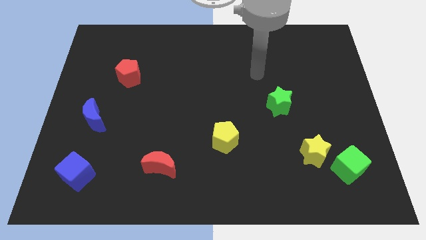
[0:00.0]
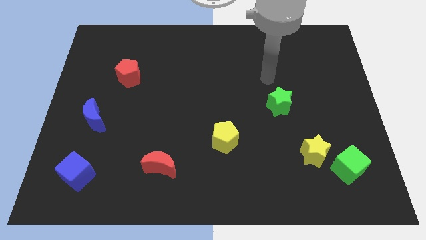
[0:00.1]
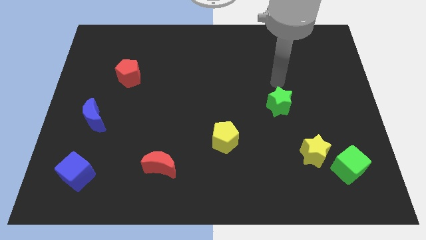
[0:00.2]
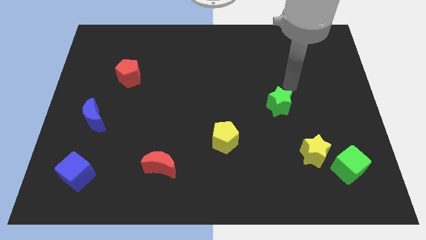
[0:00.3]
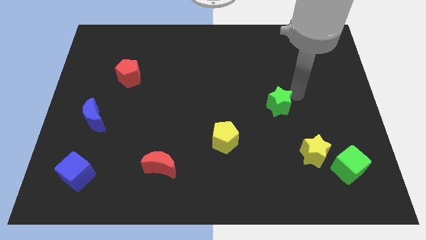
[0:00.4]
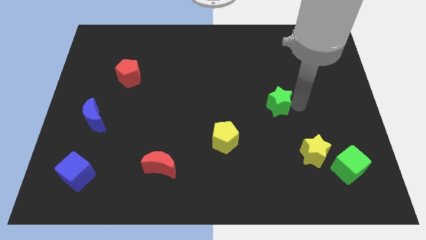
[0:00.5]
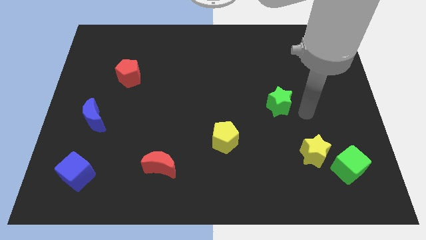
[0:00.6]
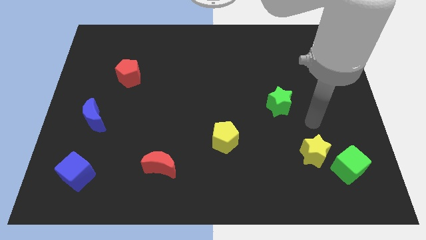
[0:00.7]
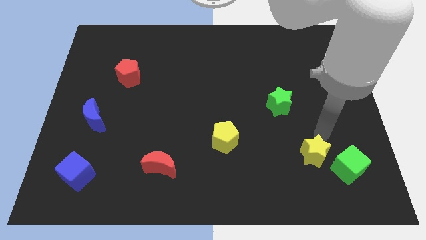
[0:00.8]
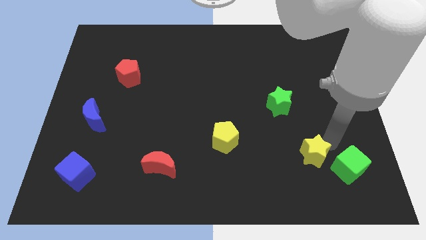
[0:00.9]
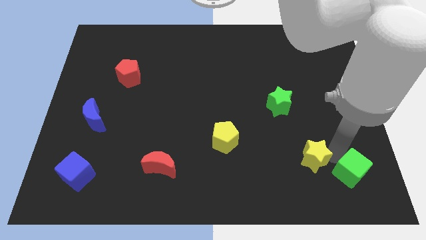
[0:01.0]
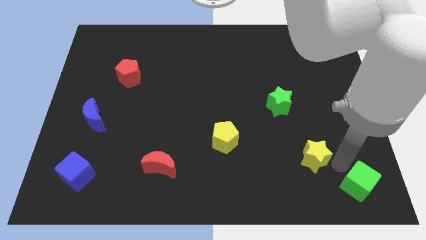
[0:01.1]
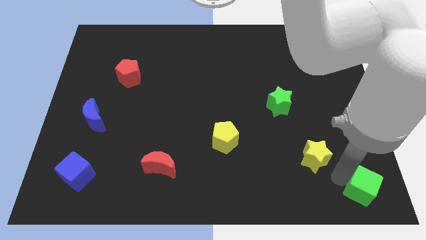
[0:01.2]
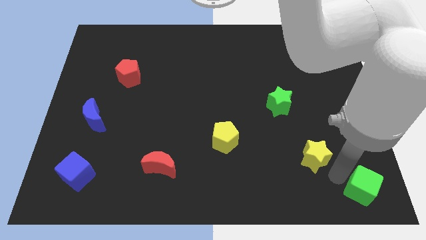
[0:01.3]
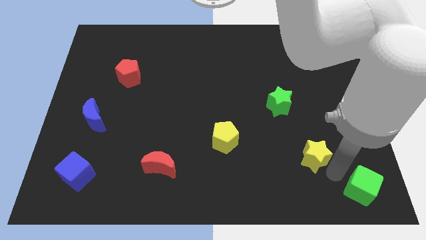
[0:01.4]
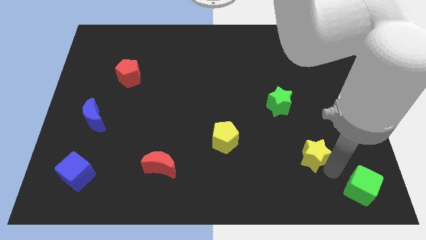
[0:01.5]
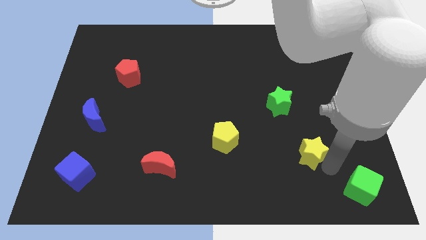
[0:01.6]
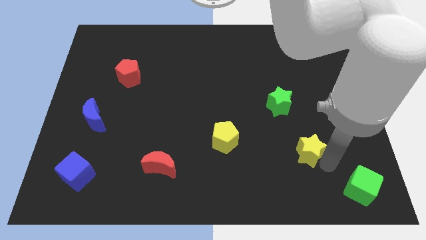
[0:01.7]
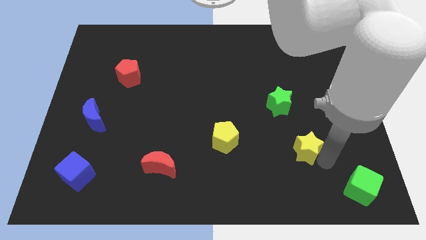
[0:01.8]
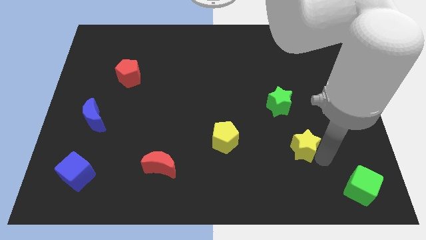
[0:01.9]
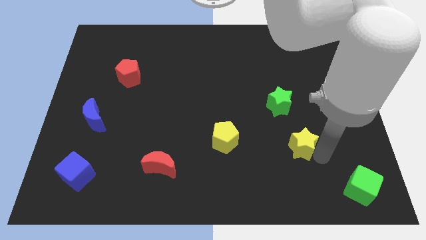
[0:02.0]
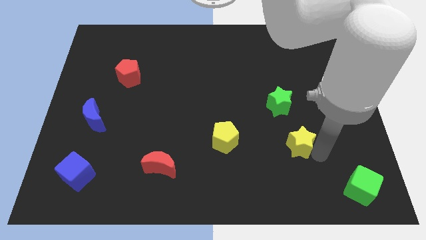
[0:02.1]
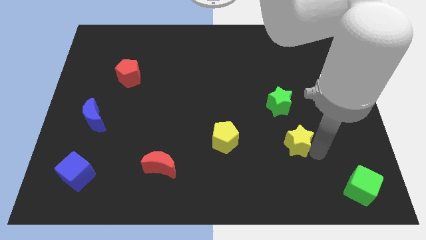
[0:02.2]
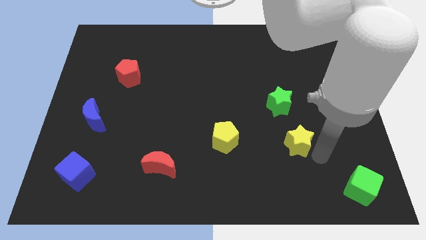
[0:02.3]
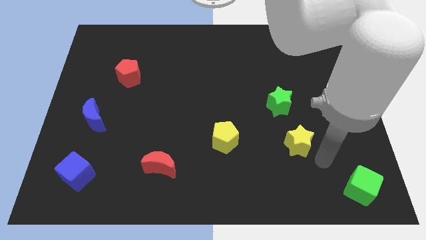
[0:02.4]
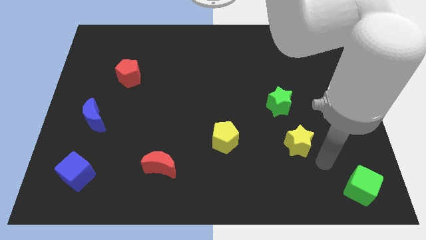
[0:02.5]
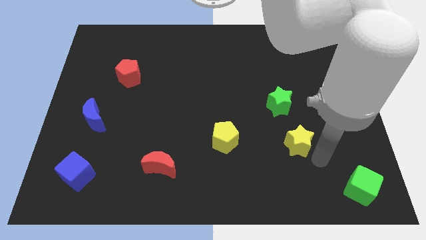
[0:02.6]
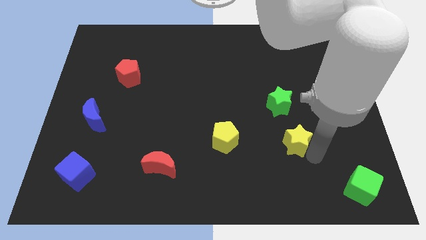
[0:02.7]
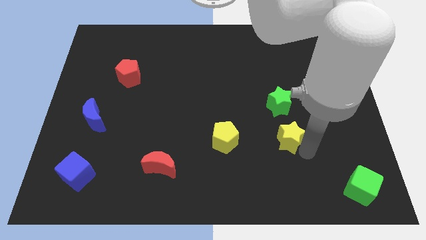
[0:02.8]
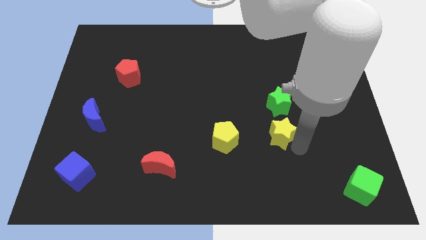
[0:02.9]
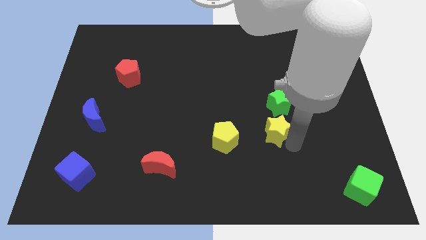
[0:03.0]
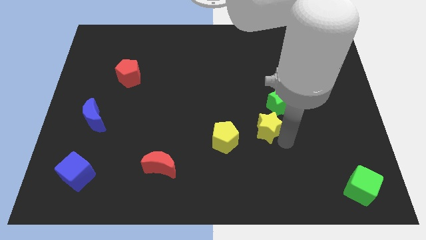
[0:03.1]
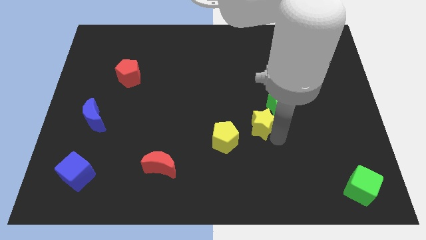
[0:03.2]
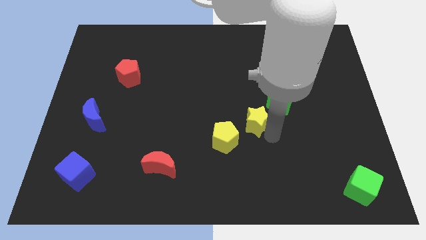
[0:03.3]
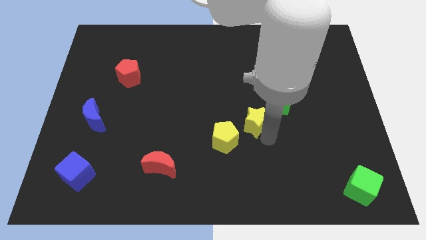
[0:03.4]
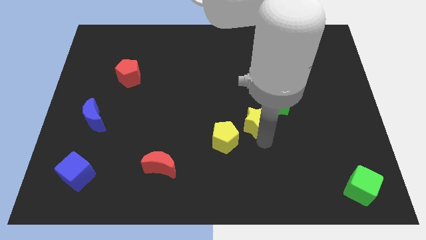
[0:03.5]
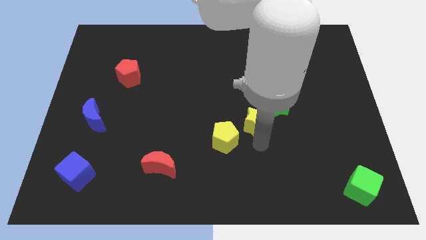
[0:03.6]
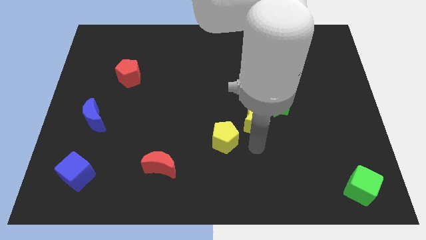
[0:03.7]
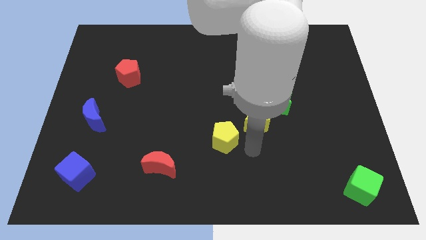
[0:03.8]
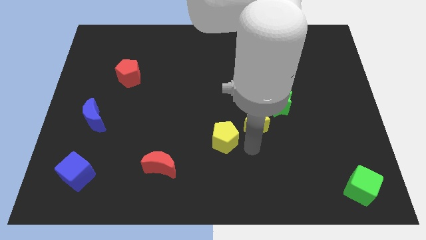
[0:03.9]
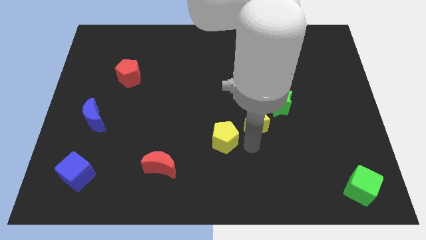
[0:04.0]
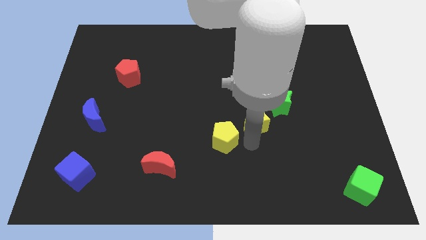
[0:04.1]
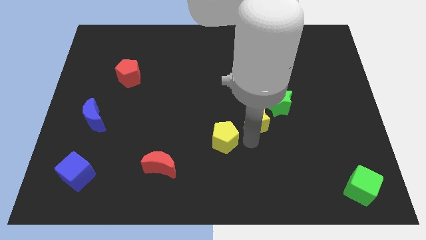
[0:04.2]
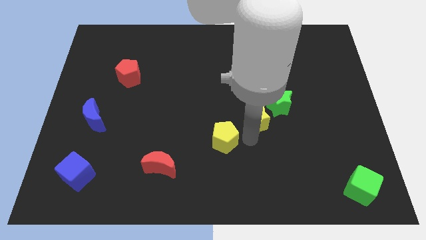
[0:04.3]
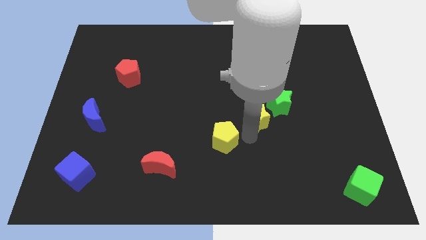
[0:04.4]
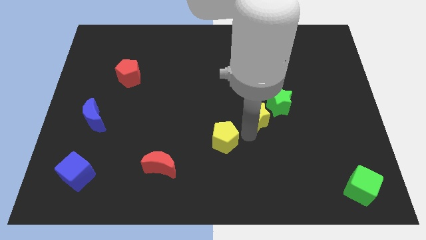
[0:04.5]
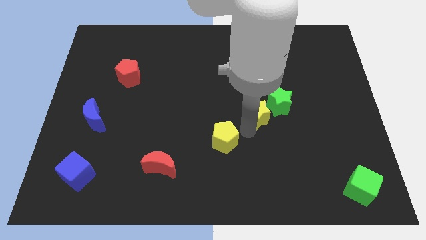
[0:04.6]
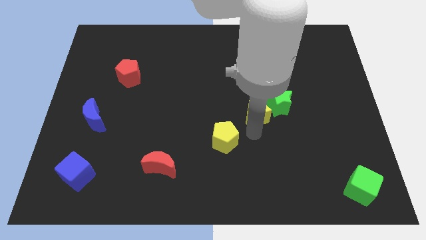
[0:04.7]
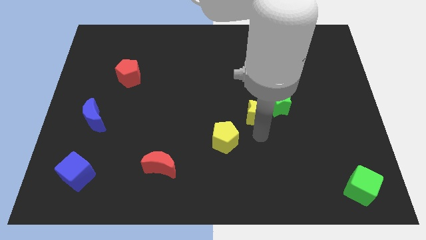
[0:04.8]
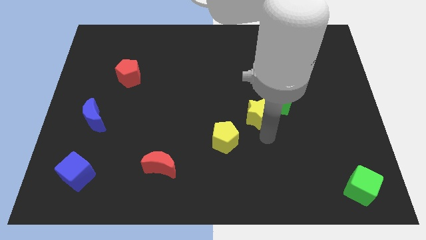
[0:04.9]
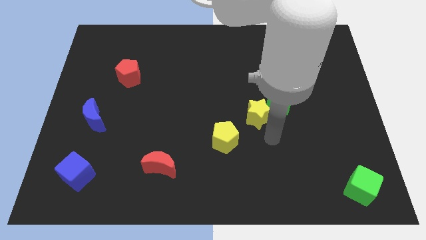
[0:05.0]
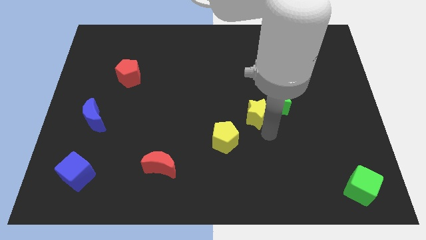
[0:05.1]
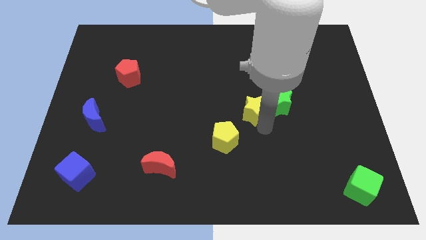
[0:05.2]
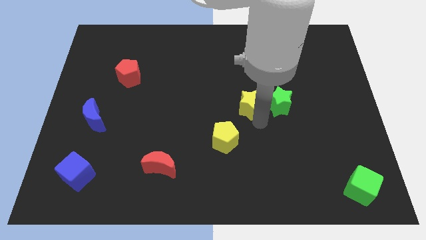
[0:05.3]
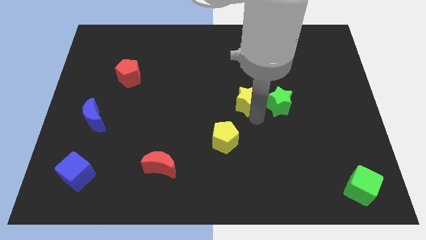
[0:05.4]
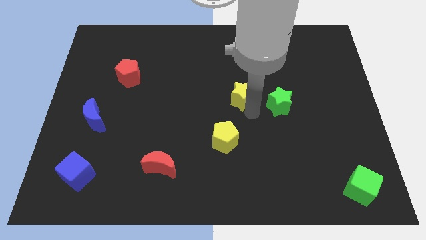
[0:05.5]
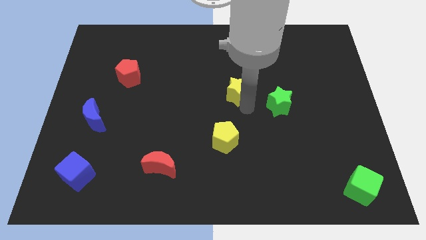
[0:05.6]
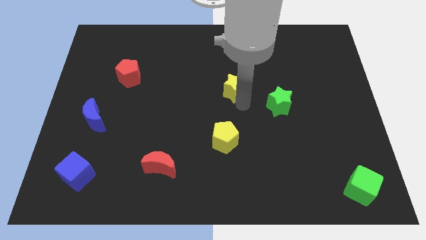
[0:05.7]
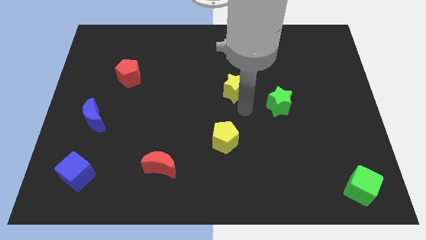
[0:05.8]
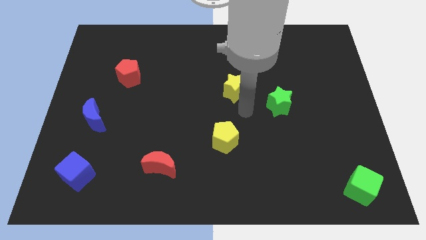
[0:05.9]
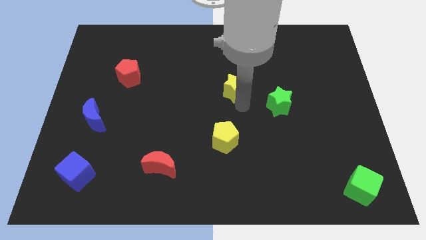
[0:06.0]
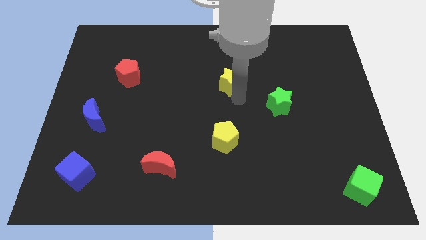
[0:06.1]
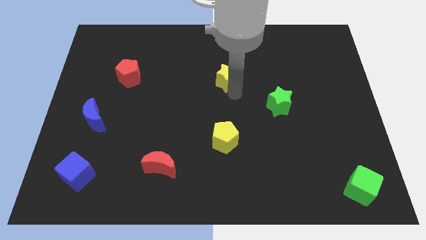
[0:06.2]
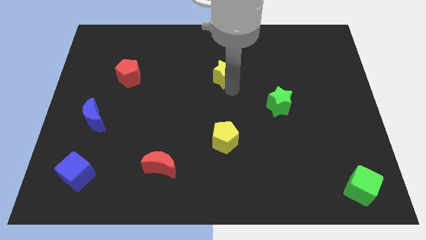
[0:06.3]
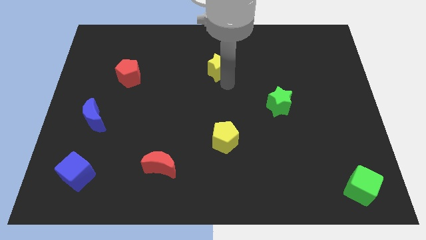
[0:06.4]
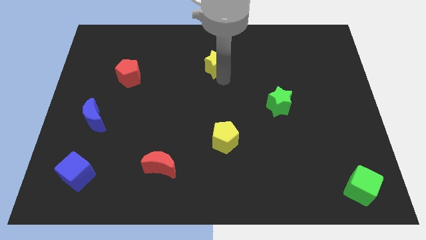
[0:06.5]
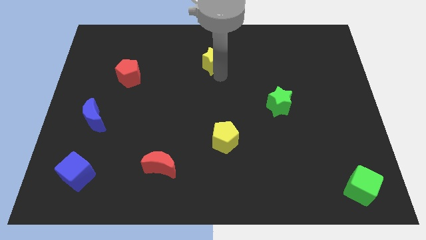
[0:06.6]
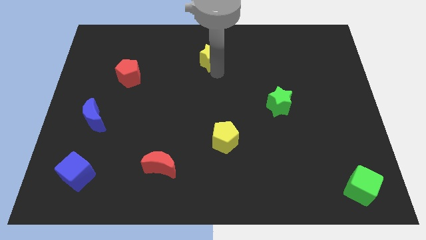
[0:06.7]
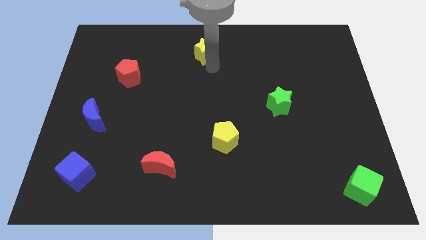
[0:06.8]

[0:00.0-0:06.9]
put the yellow star to the top side
